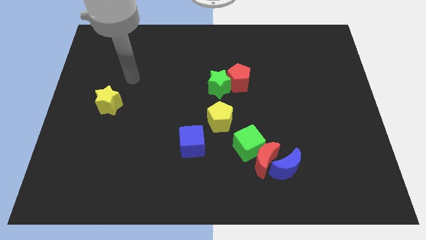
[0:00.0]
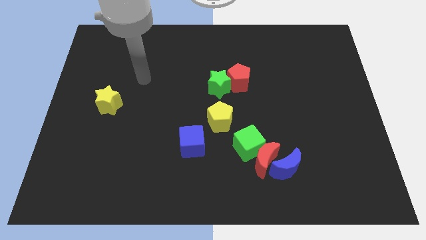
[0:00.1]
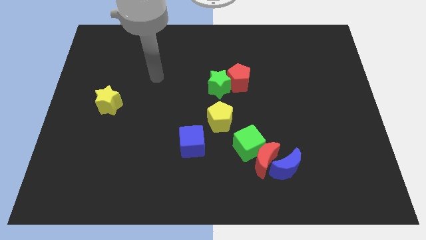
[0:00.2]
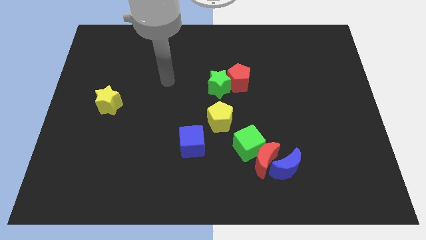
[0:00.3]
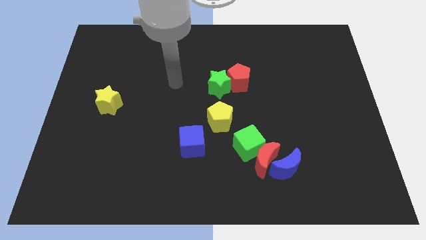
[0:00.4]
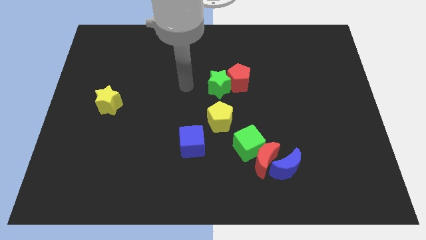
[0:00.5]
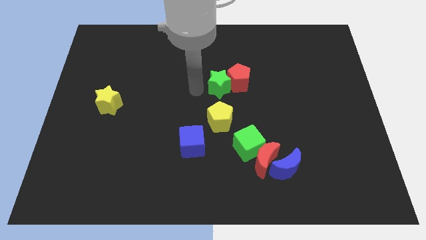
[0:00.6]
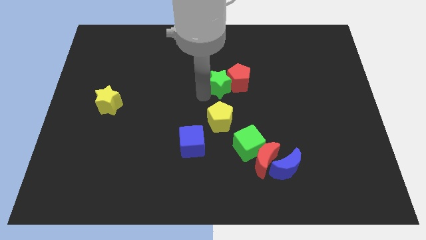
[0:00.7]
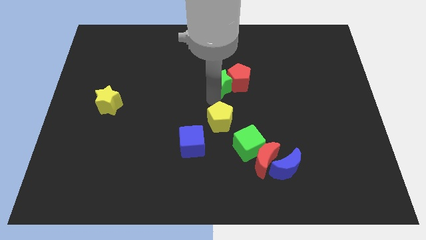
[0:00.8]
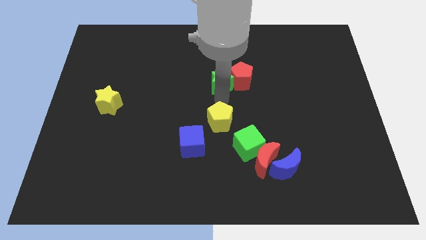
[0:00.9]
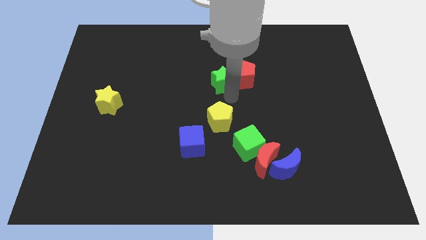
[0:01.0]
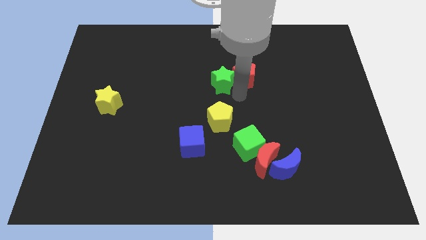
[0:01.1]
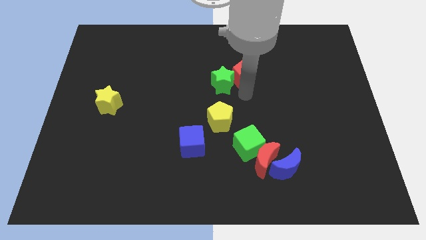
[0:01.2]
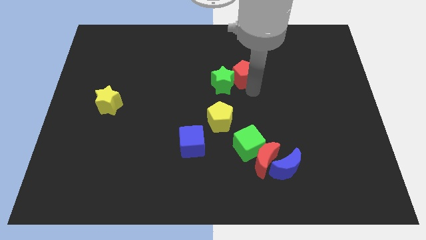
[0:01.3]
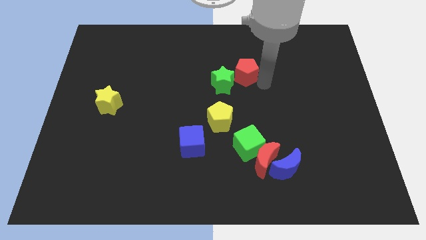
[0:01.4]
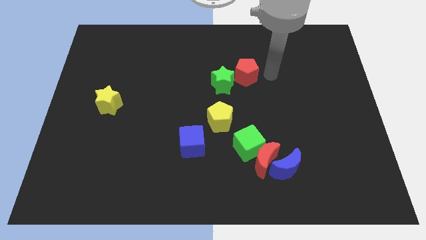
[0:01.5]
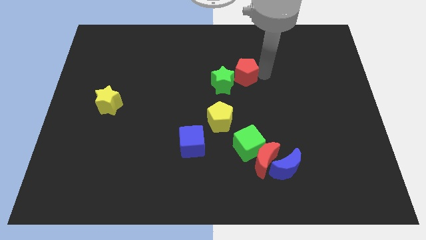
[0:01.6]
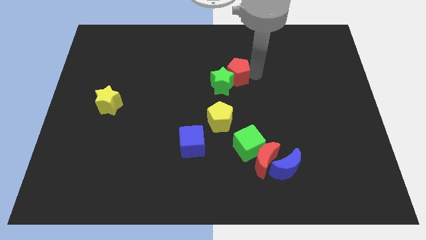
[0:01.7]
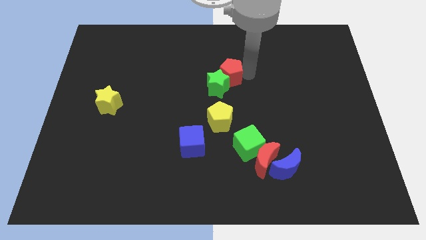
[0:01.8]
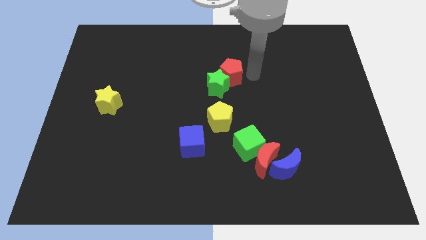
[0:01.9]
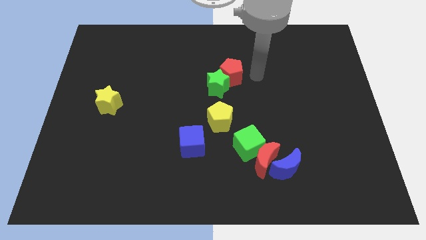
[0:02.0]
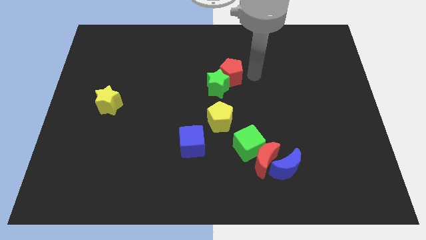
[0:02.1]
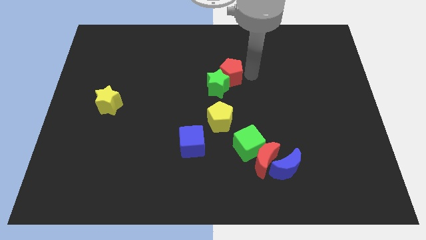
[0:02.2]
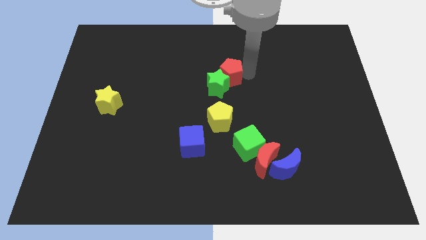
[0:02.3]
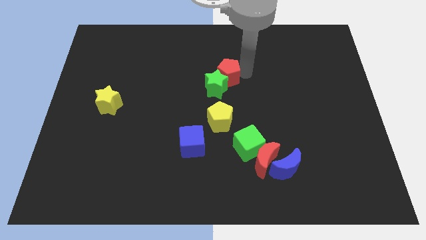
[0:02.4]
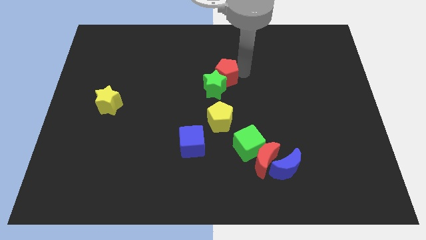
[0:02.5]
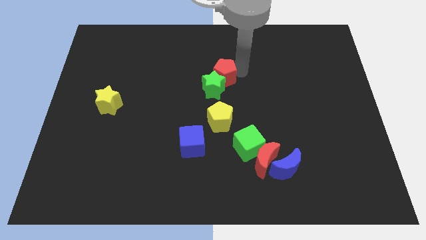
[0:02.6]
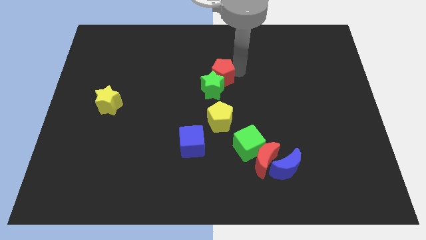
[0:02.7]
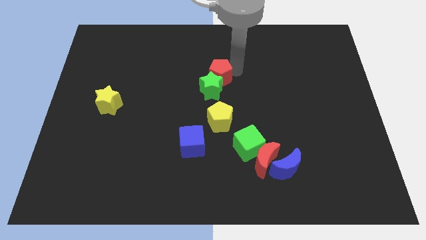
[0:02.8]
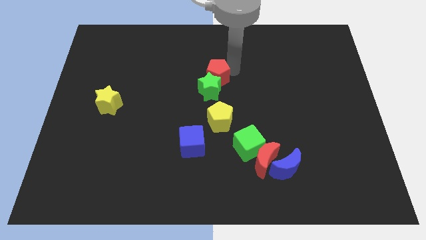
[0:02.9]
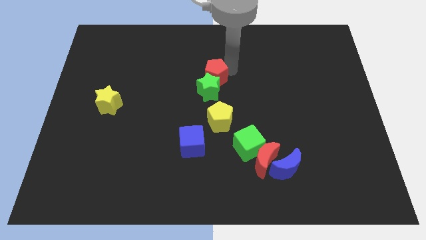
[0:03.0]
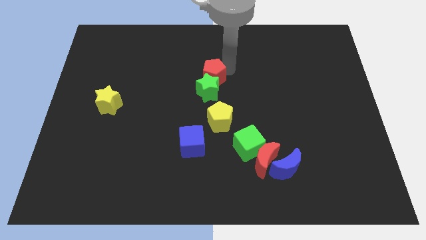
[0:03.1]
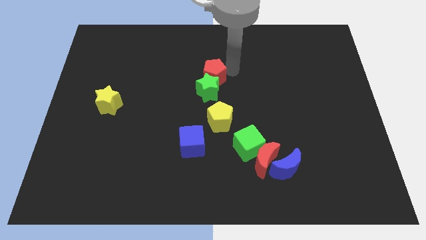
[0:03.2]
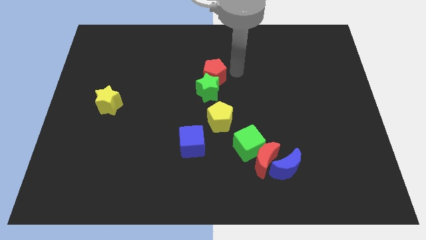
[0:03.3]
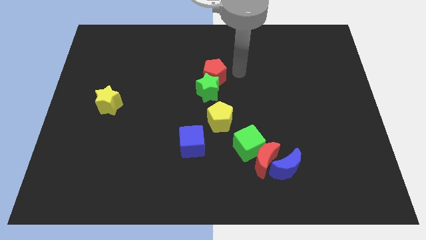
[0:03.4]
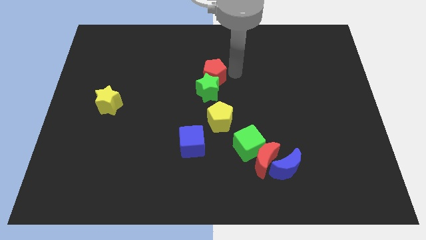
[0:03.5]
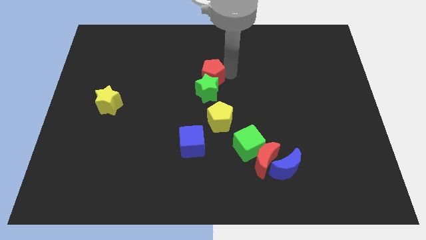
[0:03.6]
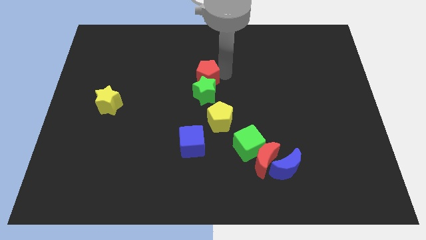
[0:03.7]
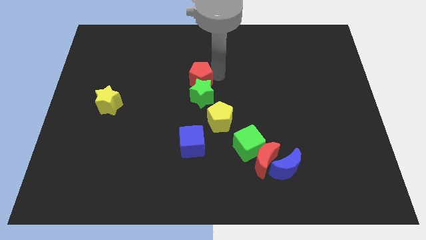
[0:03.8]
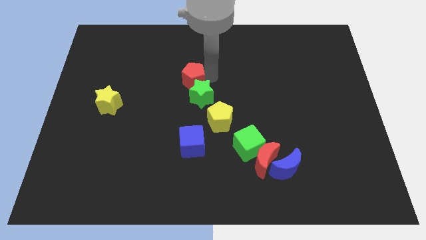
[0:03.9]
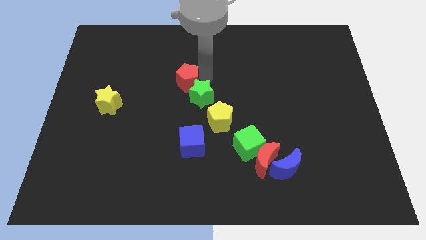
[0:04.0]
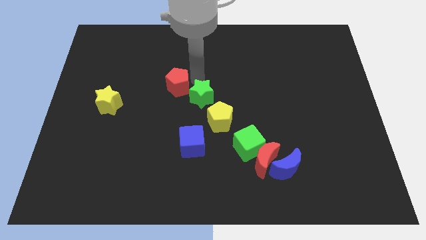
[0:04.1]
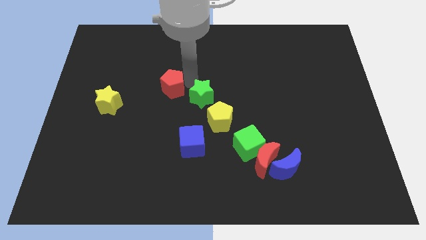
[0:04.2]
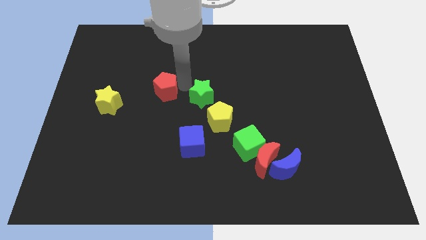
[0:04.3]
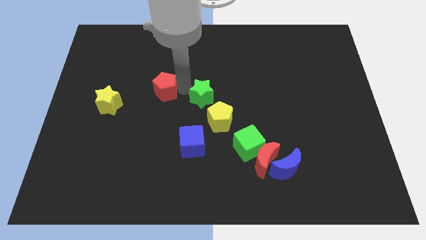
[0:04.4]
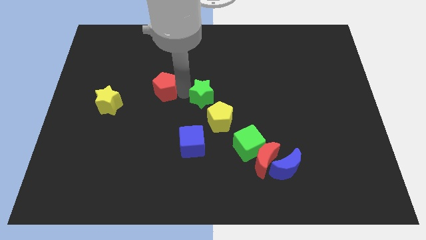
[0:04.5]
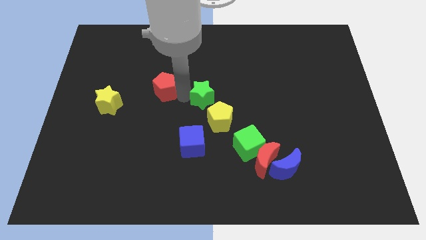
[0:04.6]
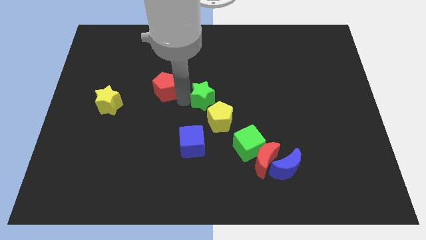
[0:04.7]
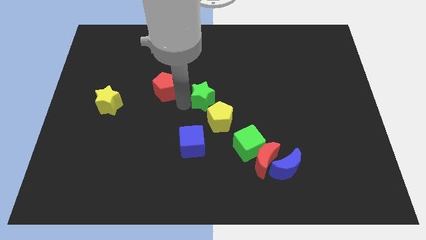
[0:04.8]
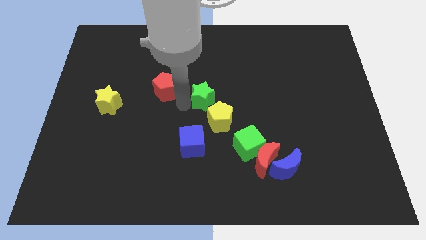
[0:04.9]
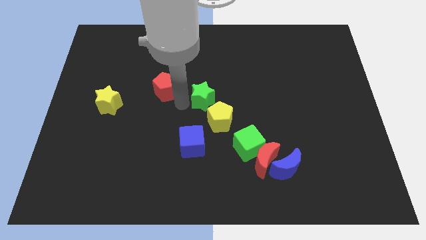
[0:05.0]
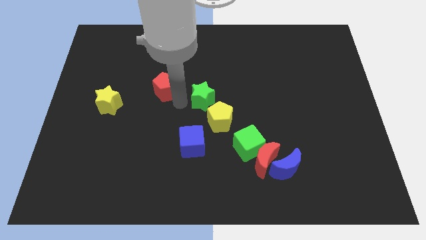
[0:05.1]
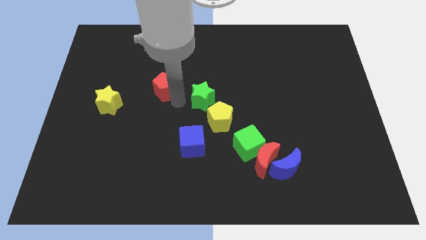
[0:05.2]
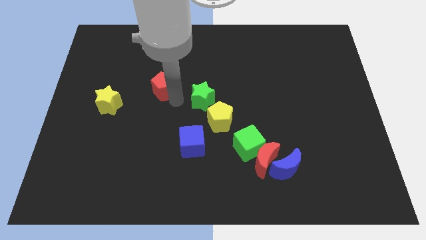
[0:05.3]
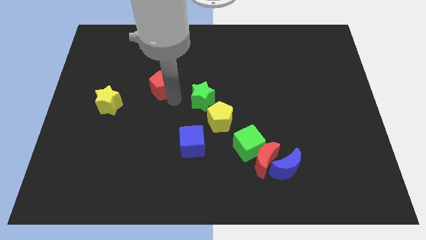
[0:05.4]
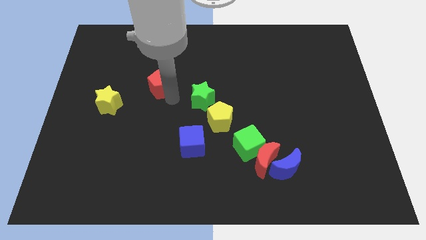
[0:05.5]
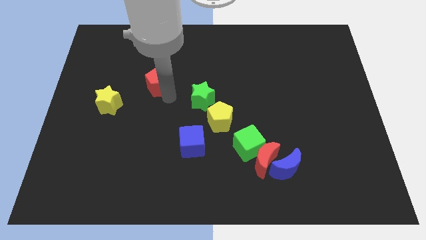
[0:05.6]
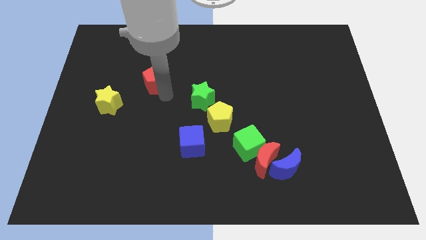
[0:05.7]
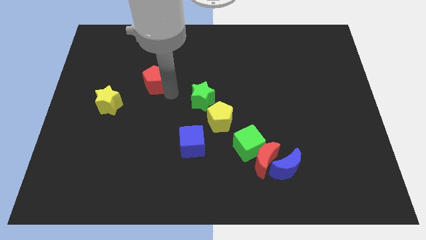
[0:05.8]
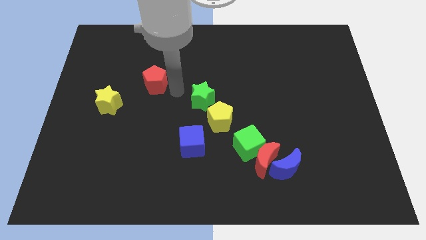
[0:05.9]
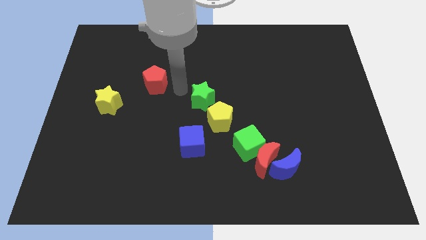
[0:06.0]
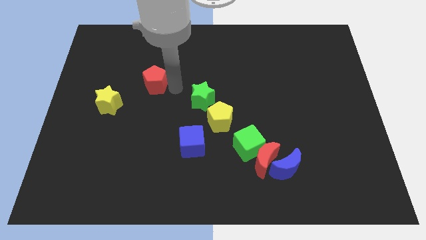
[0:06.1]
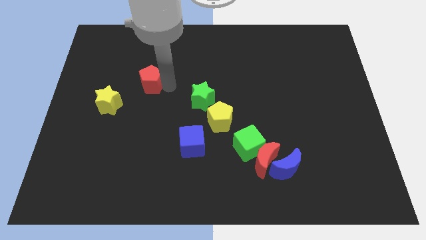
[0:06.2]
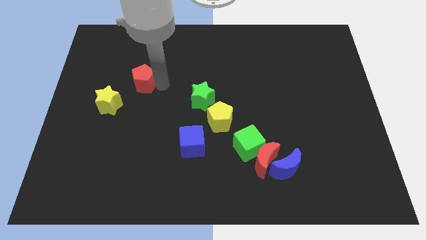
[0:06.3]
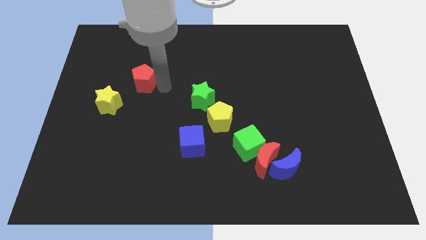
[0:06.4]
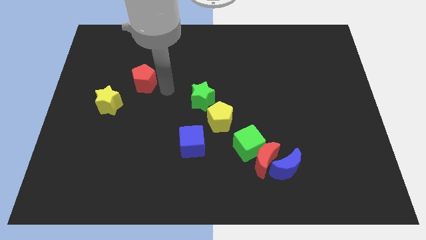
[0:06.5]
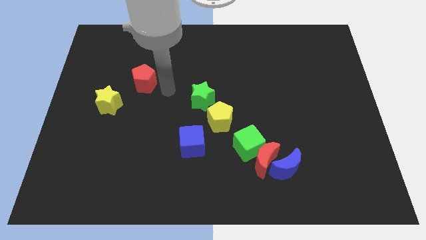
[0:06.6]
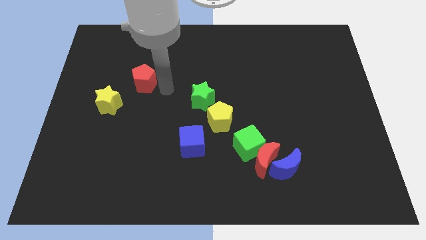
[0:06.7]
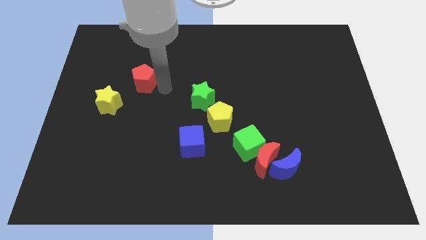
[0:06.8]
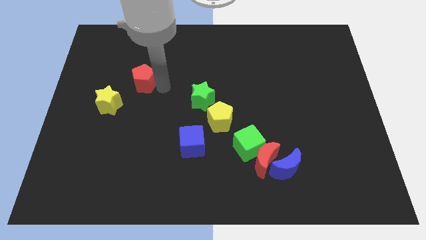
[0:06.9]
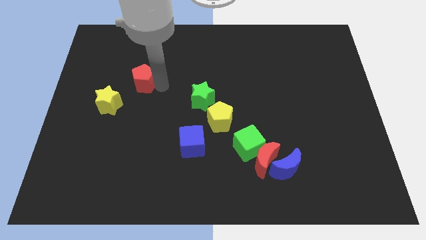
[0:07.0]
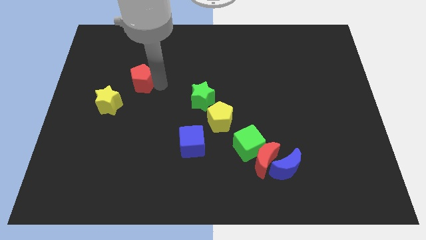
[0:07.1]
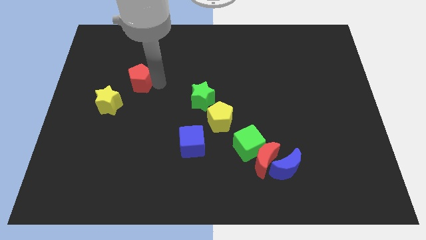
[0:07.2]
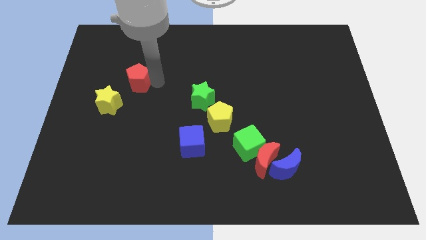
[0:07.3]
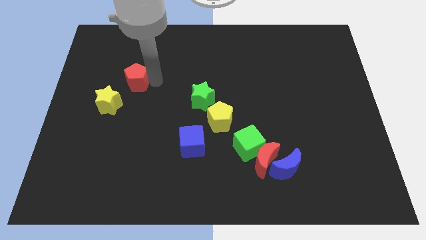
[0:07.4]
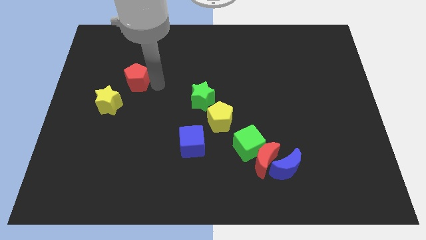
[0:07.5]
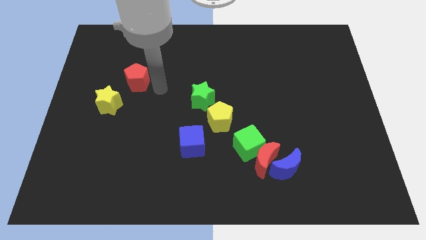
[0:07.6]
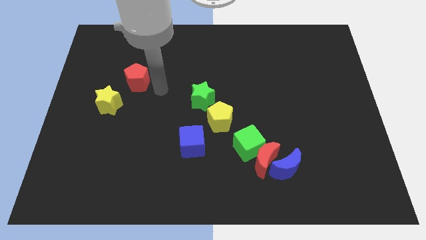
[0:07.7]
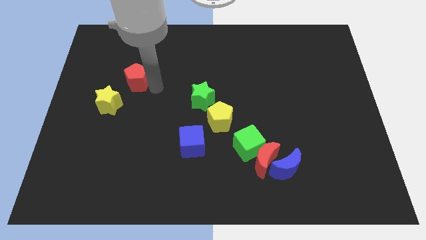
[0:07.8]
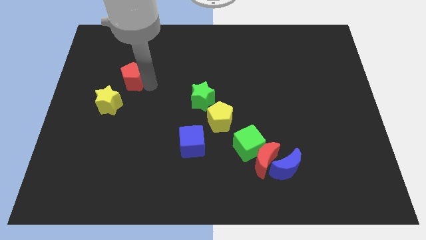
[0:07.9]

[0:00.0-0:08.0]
put the red pentagon above the yellow star
